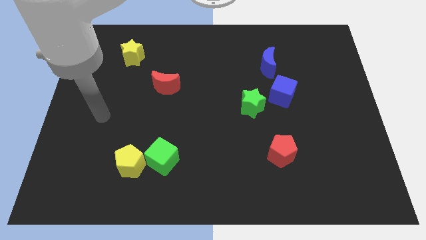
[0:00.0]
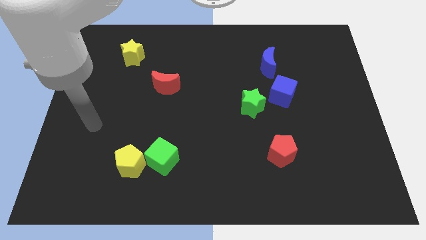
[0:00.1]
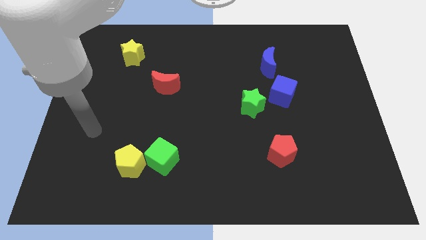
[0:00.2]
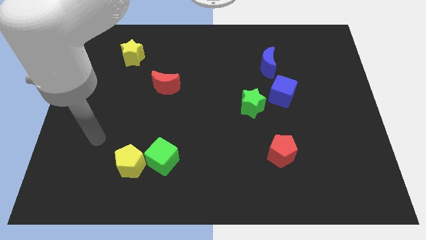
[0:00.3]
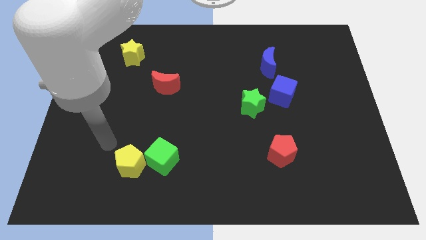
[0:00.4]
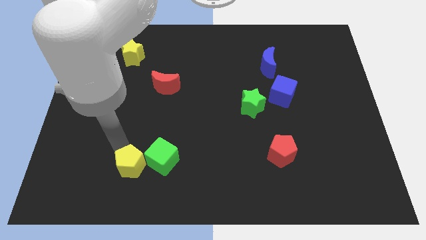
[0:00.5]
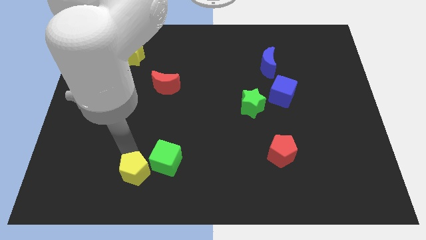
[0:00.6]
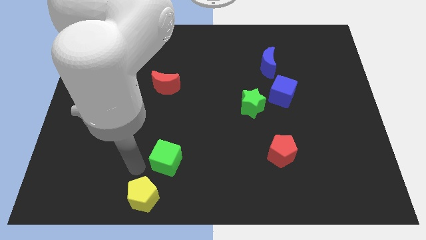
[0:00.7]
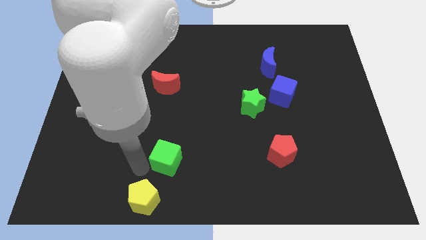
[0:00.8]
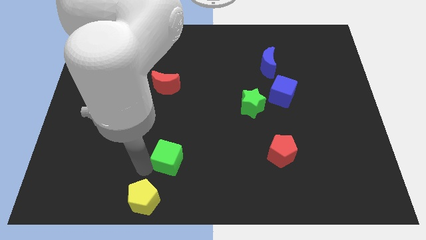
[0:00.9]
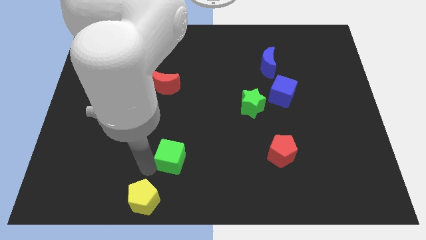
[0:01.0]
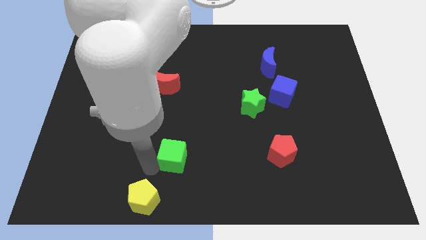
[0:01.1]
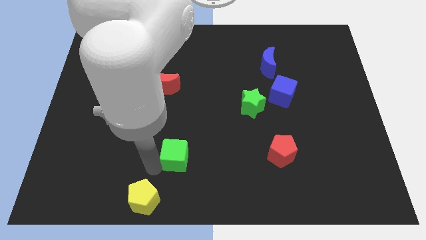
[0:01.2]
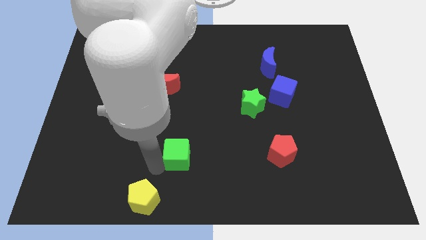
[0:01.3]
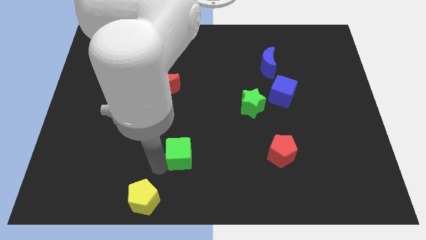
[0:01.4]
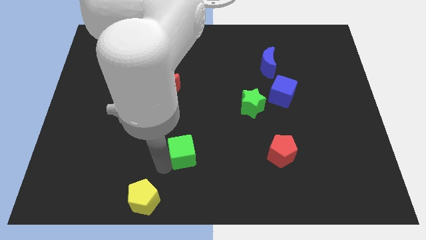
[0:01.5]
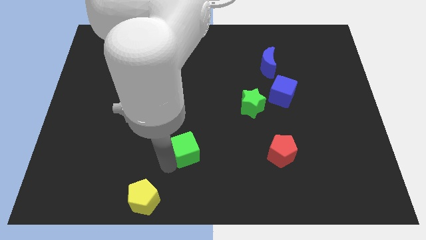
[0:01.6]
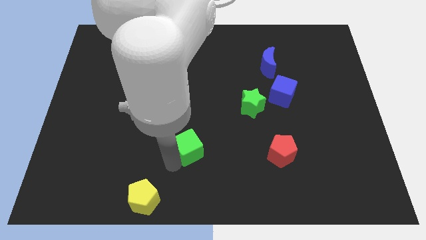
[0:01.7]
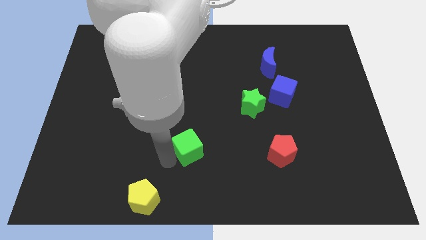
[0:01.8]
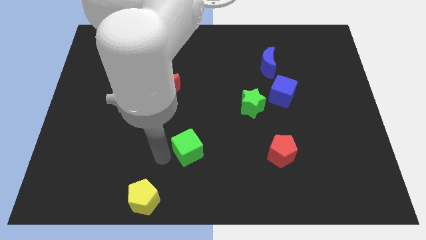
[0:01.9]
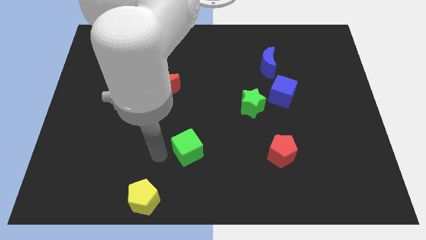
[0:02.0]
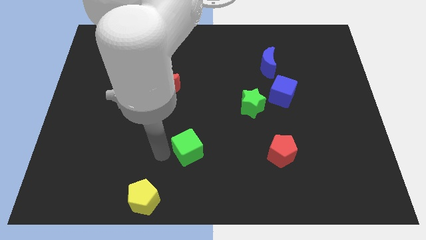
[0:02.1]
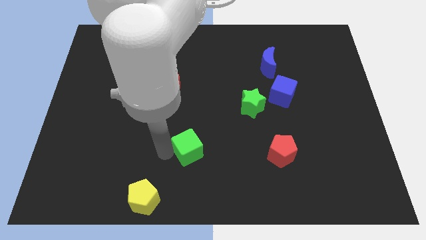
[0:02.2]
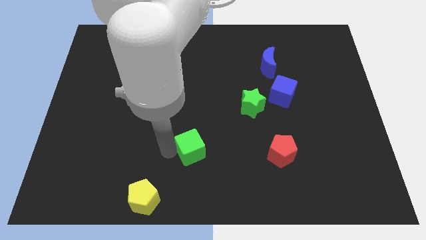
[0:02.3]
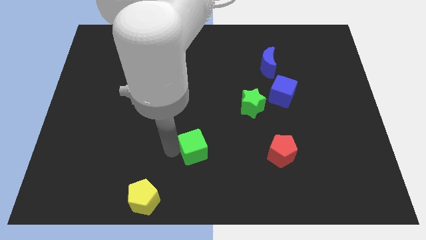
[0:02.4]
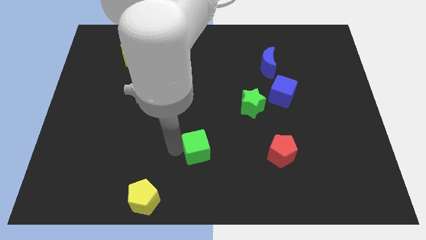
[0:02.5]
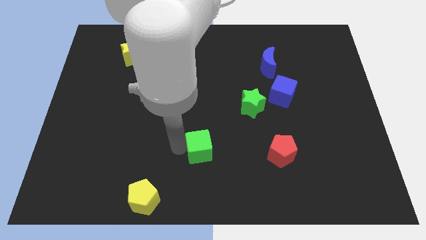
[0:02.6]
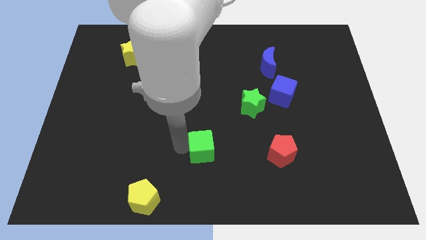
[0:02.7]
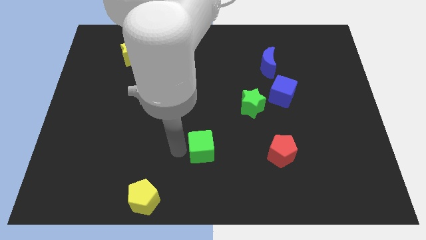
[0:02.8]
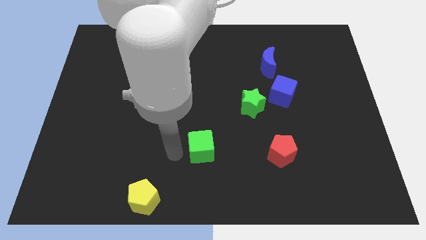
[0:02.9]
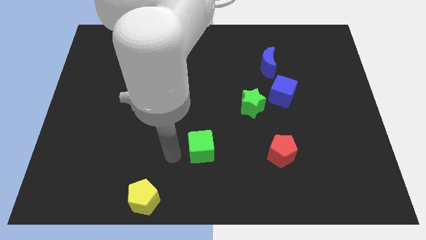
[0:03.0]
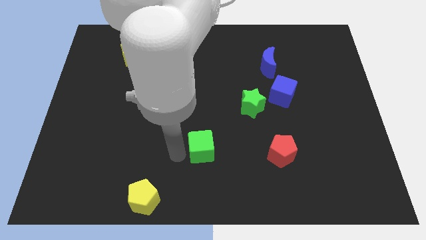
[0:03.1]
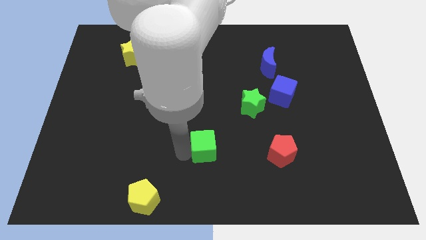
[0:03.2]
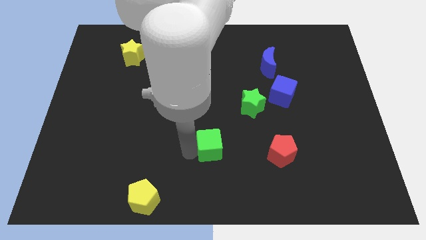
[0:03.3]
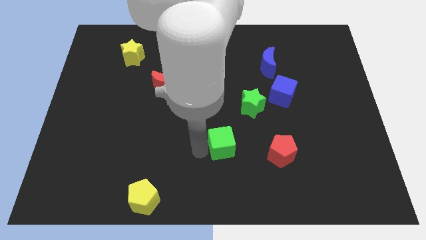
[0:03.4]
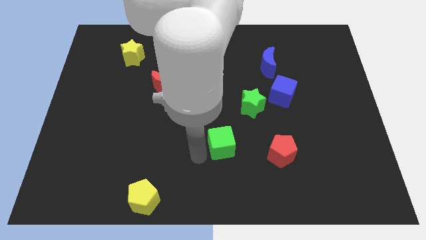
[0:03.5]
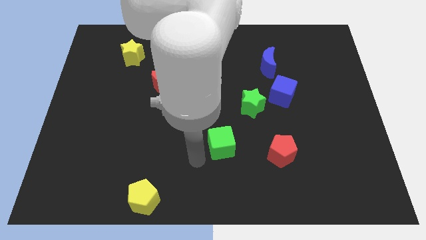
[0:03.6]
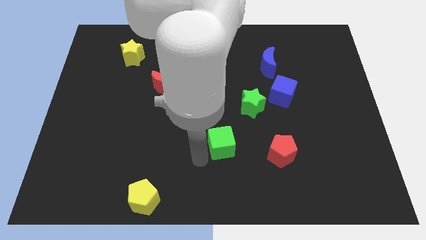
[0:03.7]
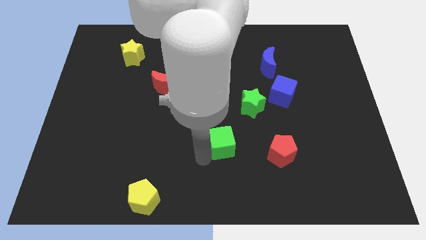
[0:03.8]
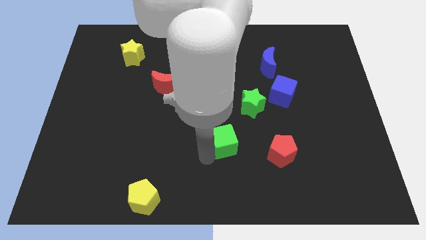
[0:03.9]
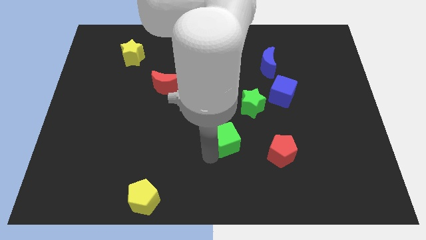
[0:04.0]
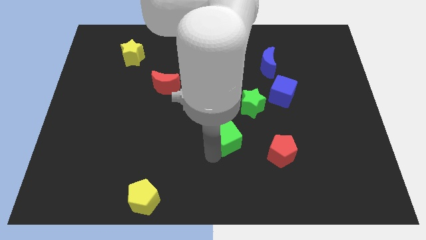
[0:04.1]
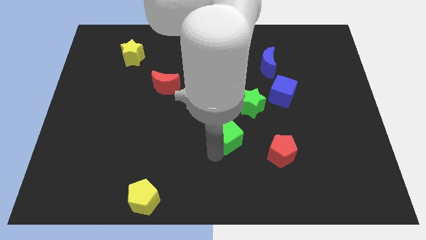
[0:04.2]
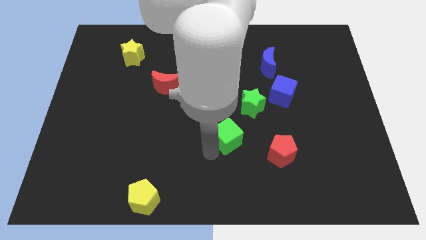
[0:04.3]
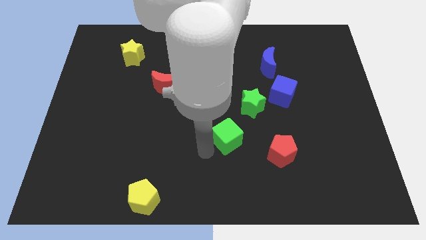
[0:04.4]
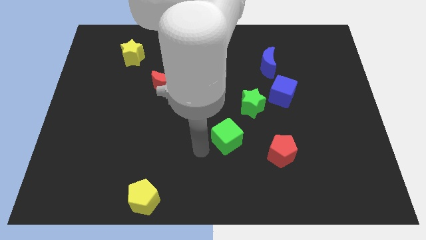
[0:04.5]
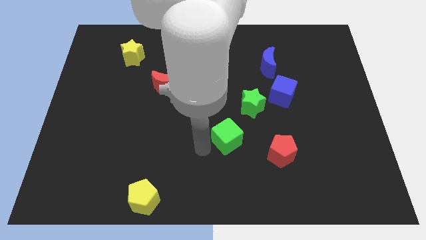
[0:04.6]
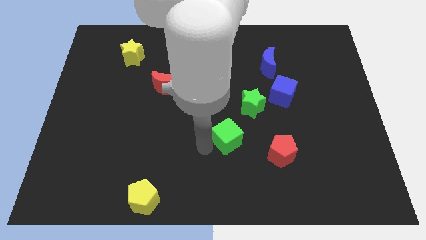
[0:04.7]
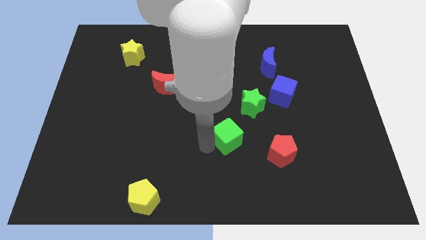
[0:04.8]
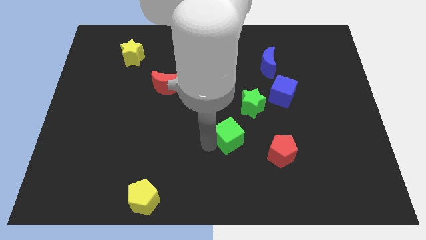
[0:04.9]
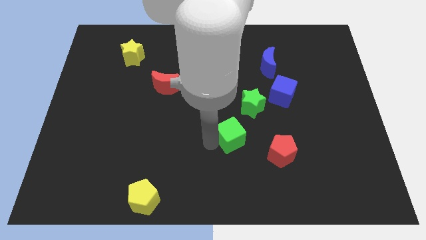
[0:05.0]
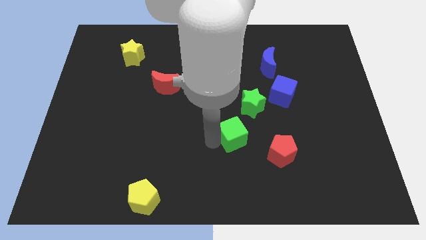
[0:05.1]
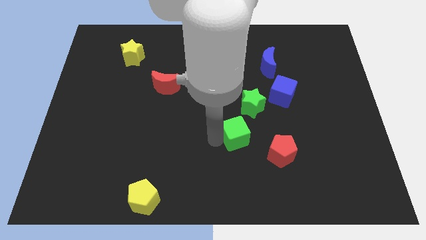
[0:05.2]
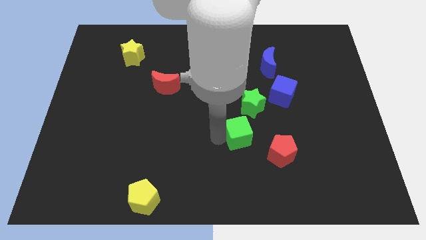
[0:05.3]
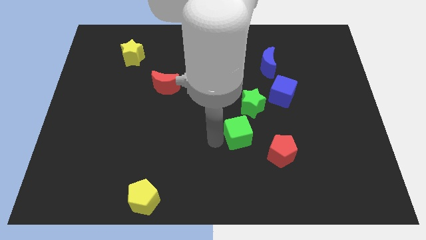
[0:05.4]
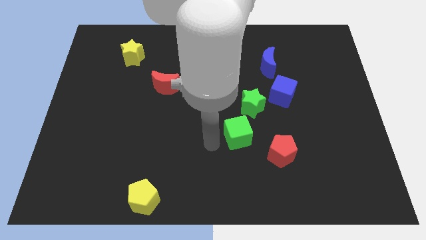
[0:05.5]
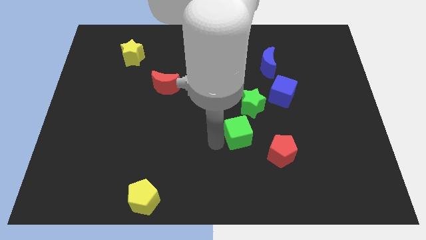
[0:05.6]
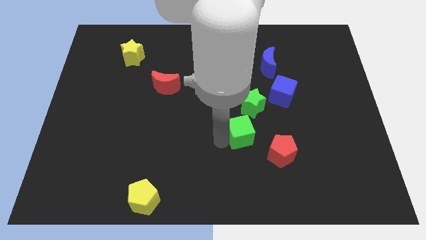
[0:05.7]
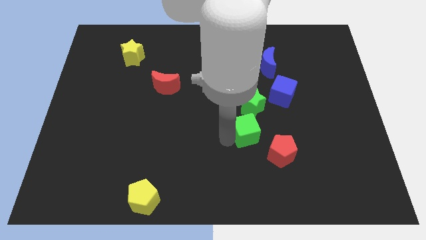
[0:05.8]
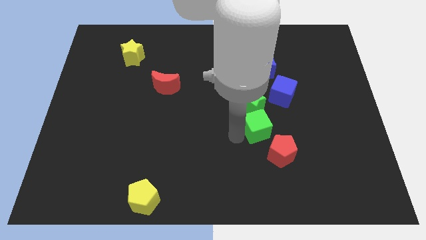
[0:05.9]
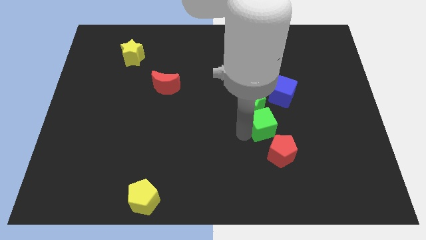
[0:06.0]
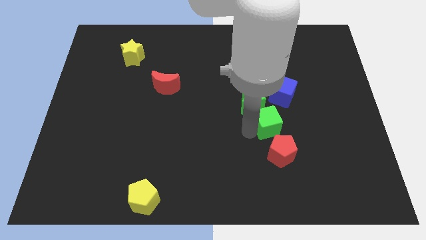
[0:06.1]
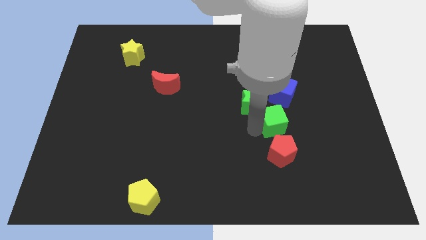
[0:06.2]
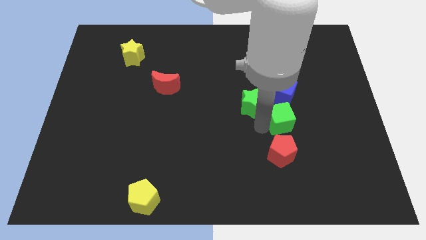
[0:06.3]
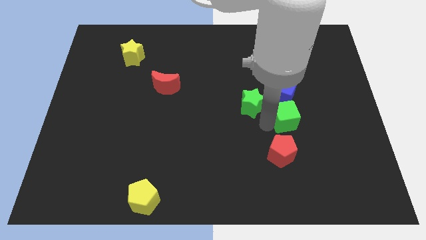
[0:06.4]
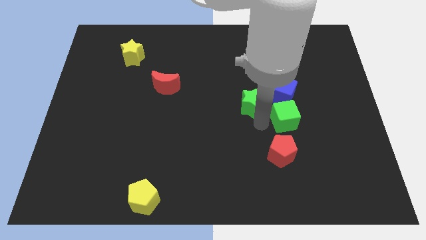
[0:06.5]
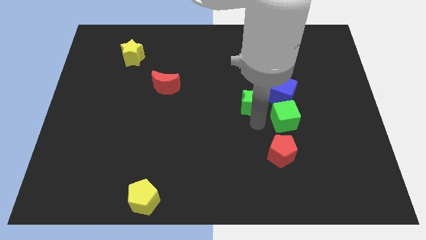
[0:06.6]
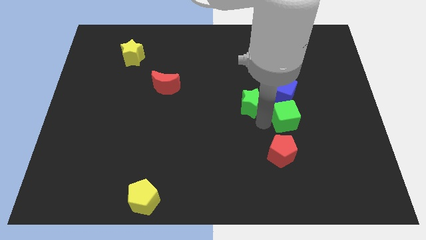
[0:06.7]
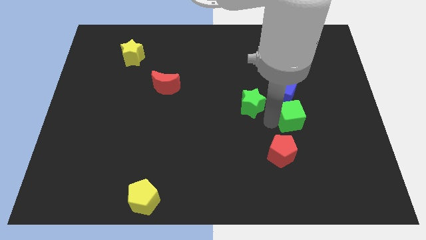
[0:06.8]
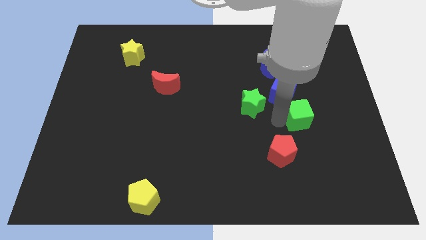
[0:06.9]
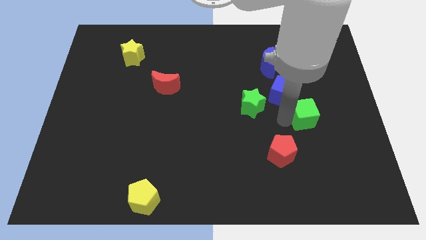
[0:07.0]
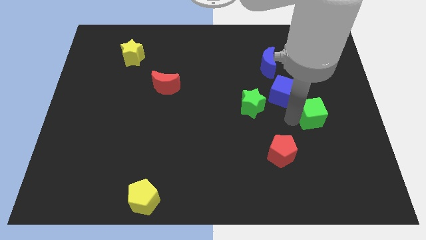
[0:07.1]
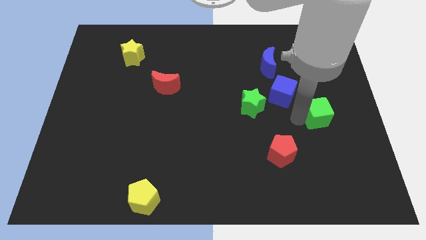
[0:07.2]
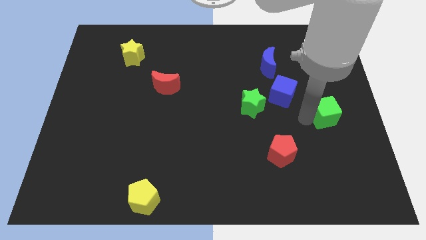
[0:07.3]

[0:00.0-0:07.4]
put the green cube to the center right
